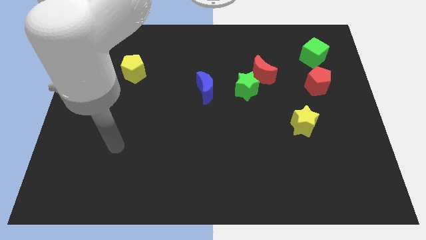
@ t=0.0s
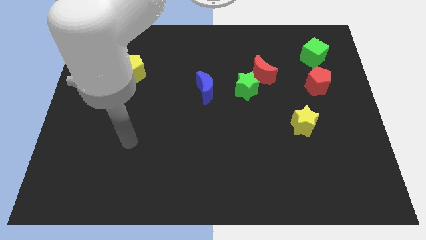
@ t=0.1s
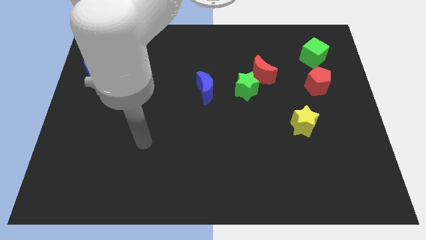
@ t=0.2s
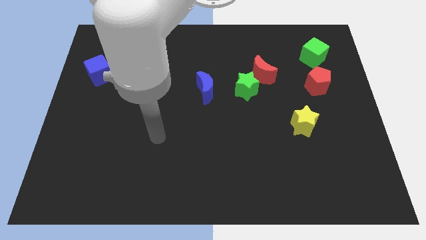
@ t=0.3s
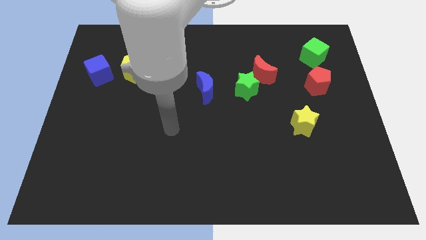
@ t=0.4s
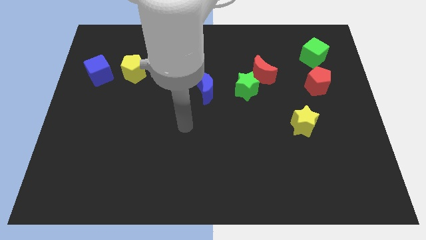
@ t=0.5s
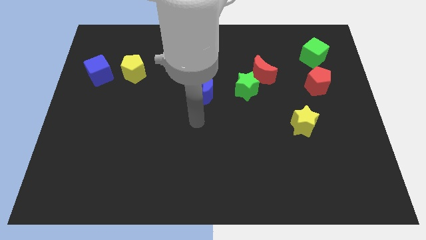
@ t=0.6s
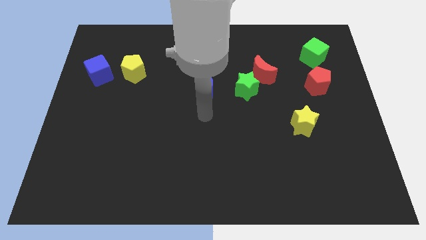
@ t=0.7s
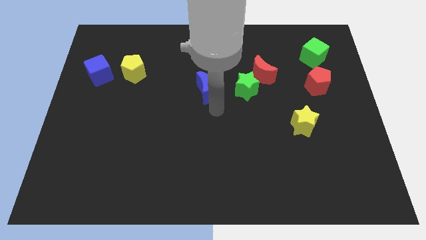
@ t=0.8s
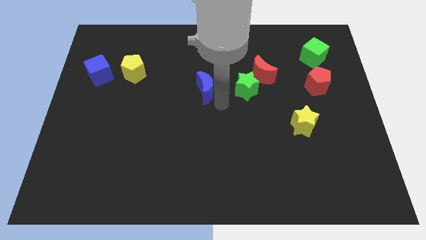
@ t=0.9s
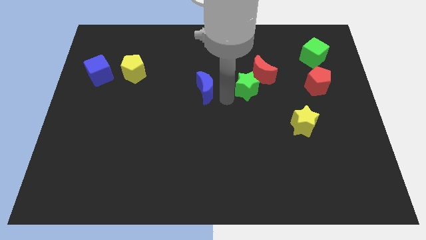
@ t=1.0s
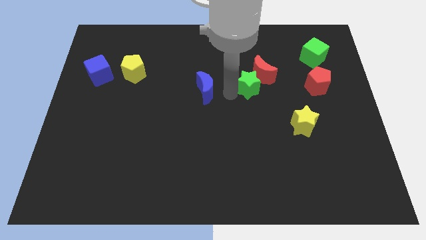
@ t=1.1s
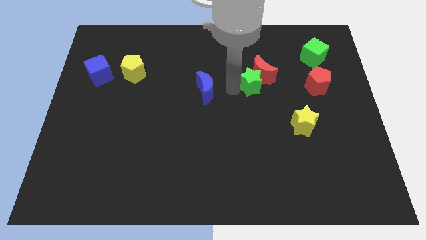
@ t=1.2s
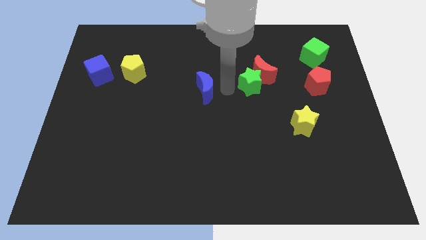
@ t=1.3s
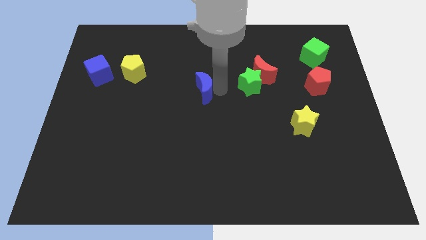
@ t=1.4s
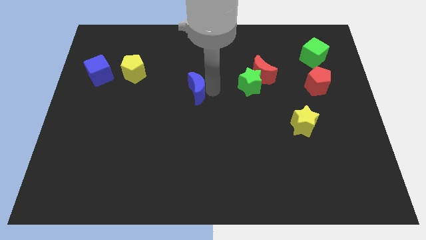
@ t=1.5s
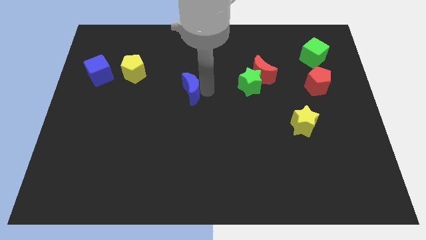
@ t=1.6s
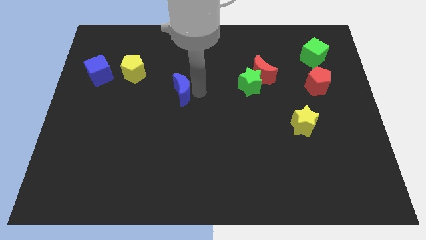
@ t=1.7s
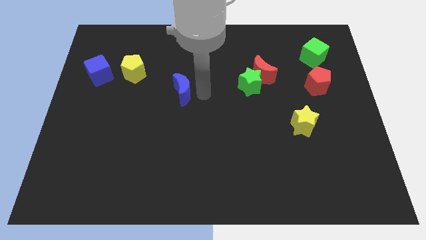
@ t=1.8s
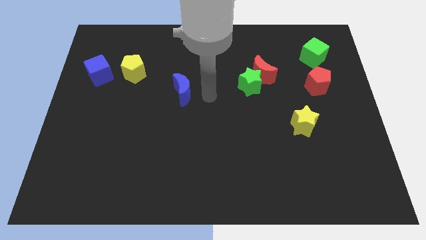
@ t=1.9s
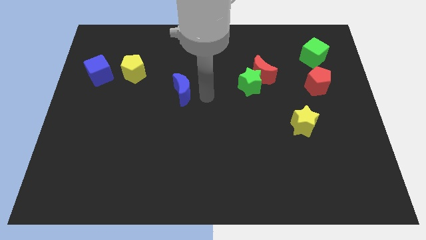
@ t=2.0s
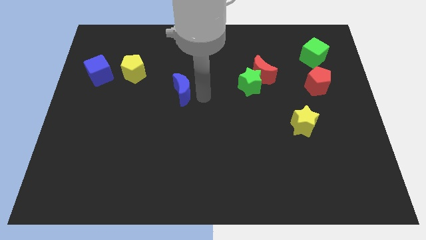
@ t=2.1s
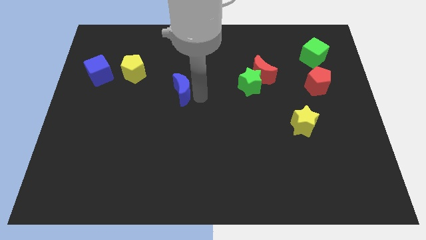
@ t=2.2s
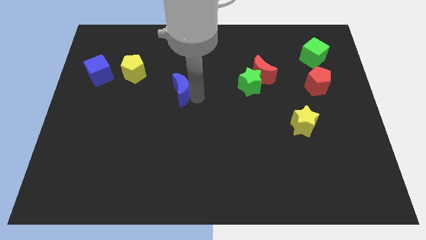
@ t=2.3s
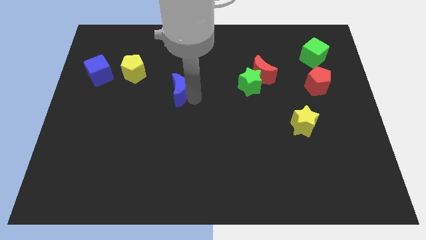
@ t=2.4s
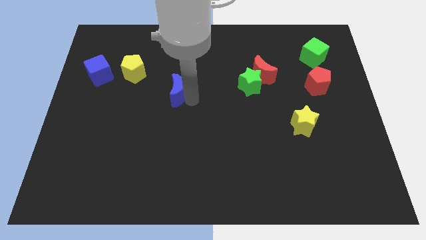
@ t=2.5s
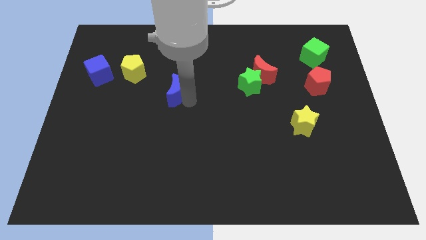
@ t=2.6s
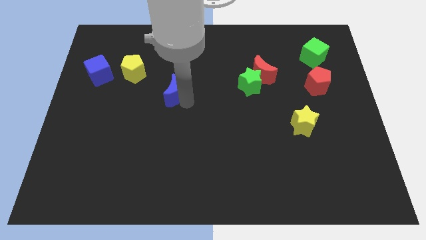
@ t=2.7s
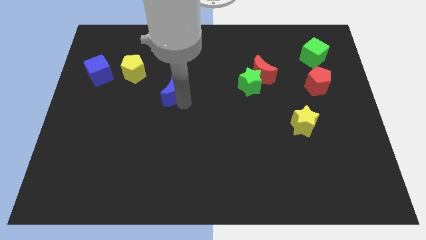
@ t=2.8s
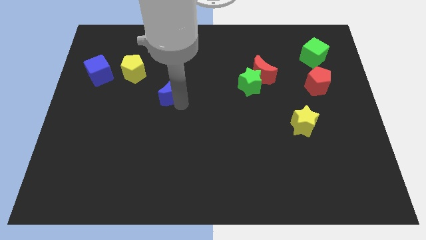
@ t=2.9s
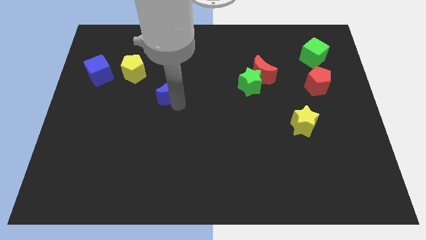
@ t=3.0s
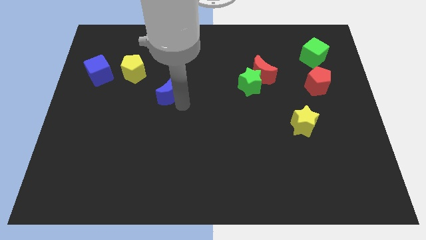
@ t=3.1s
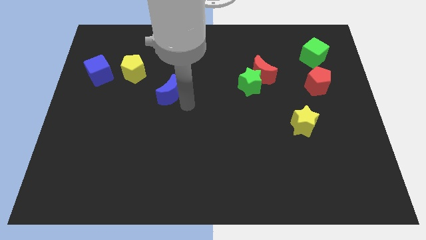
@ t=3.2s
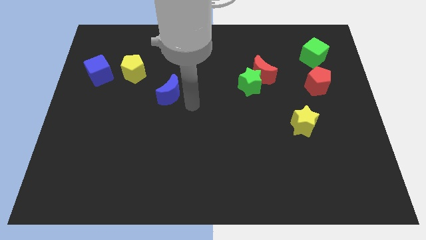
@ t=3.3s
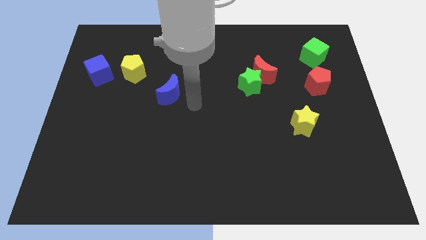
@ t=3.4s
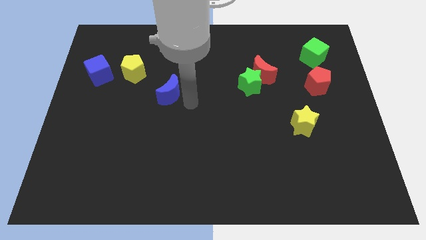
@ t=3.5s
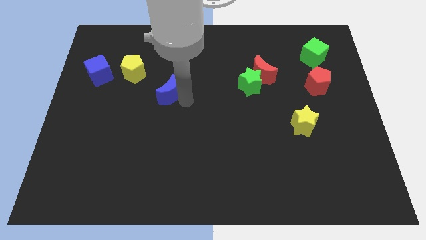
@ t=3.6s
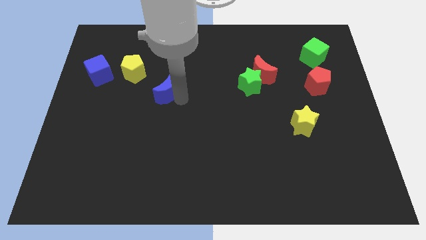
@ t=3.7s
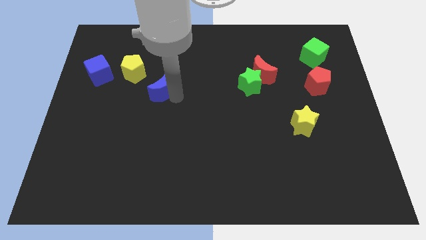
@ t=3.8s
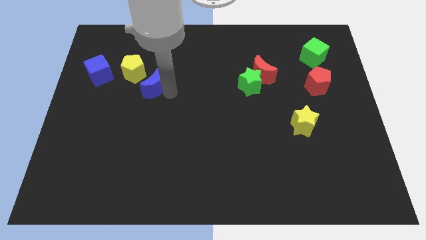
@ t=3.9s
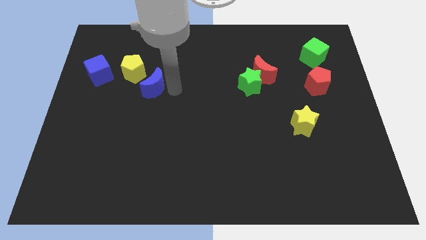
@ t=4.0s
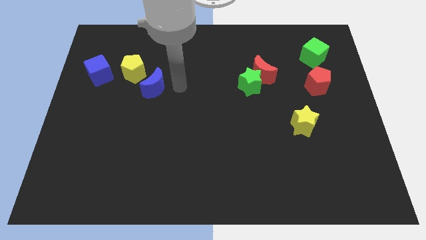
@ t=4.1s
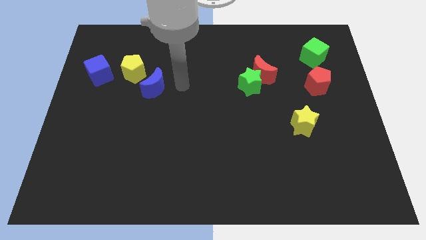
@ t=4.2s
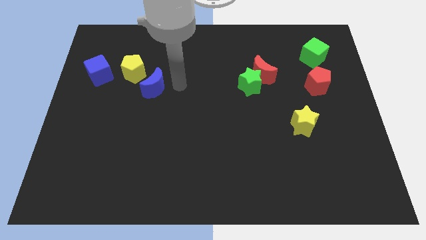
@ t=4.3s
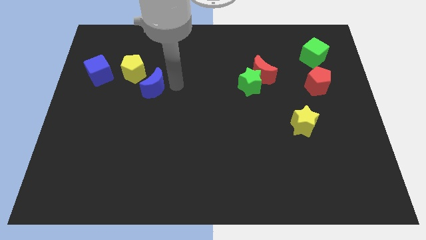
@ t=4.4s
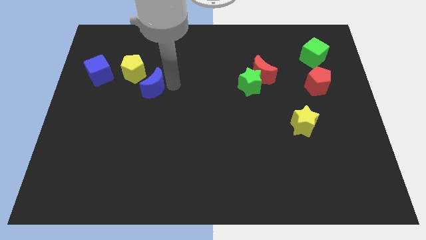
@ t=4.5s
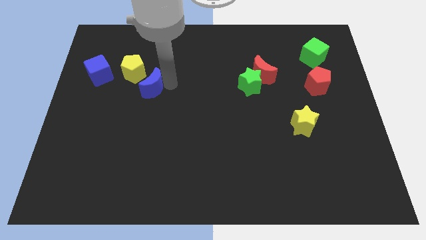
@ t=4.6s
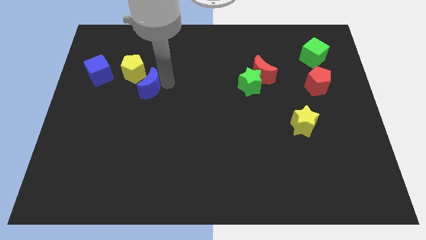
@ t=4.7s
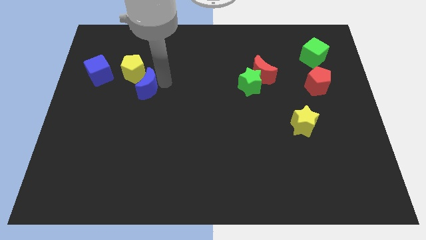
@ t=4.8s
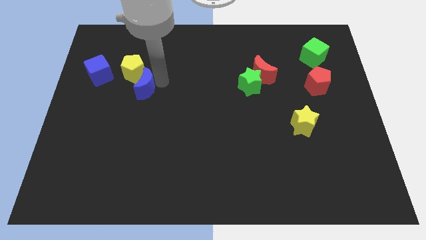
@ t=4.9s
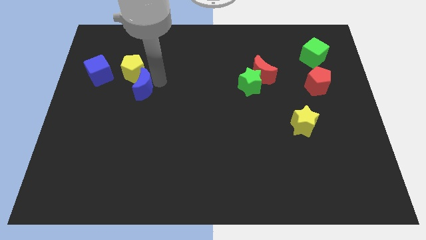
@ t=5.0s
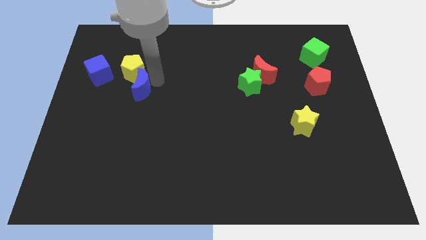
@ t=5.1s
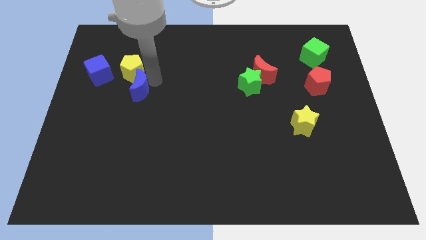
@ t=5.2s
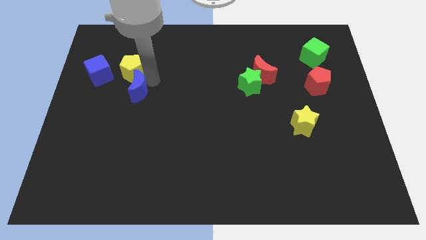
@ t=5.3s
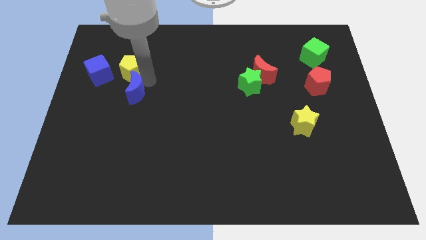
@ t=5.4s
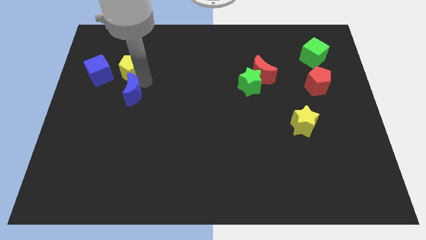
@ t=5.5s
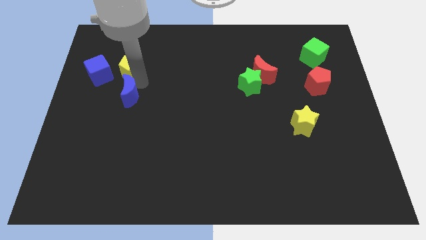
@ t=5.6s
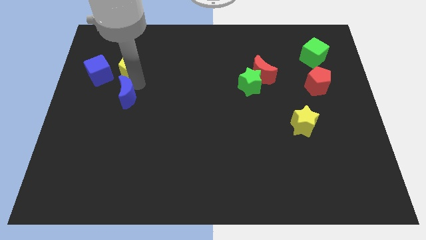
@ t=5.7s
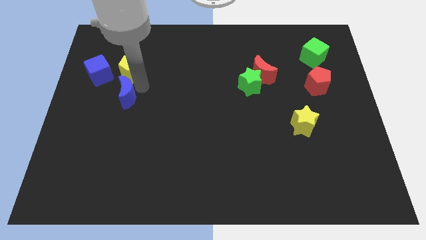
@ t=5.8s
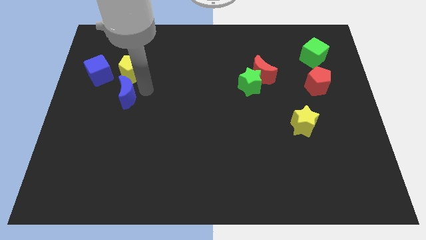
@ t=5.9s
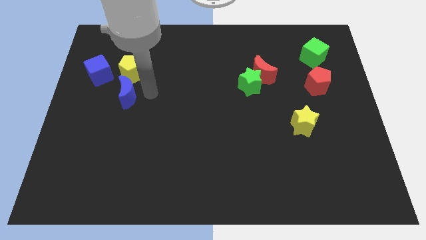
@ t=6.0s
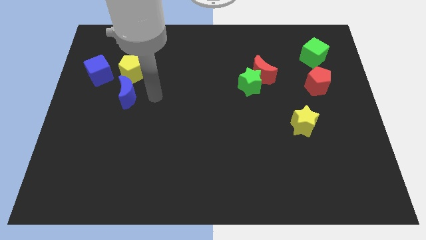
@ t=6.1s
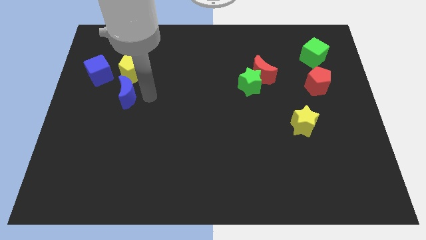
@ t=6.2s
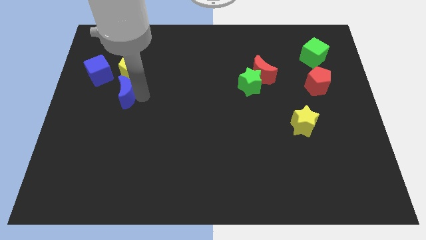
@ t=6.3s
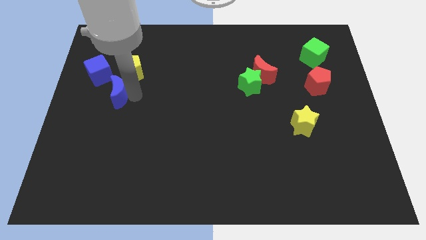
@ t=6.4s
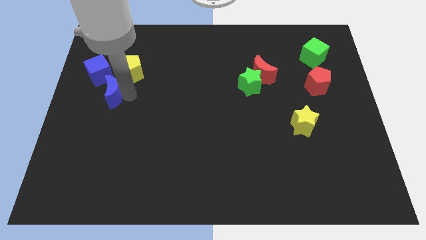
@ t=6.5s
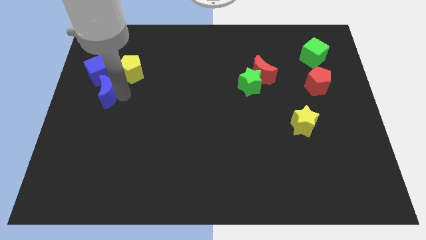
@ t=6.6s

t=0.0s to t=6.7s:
put the blue moon to the center left

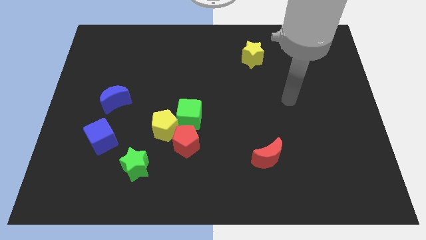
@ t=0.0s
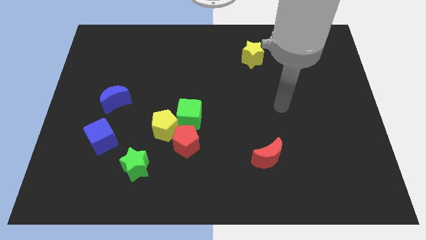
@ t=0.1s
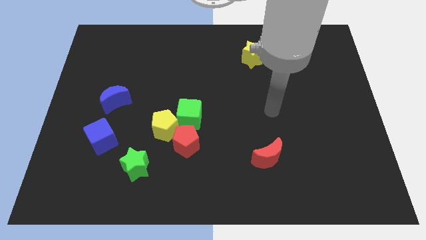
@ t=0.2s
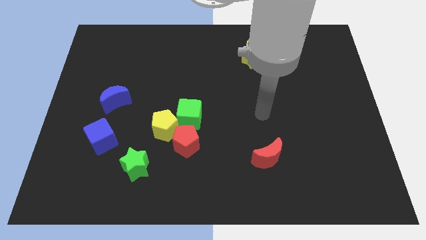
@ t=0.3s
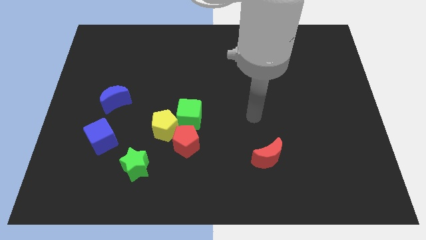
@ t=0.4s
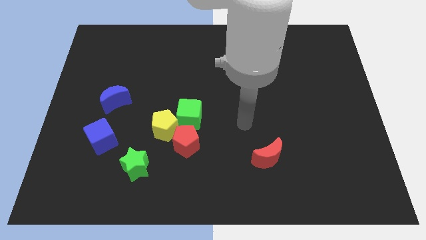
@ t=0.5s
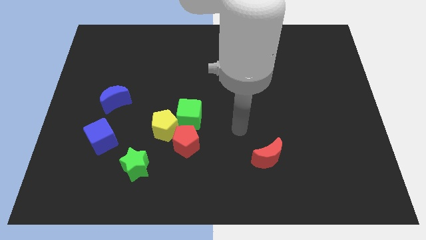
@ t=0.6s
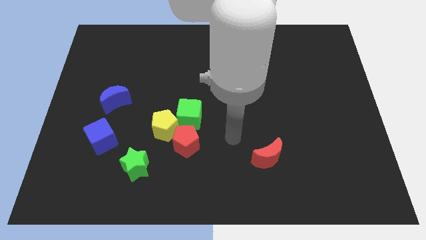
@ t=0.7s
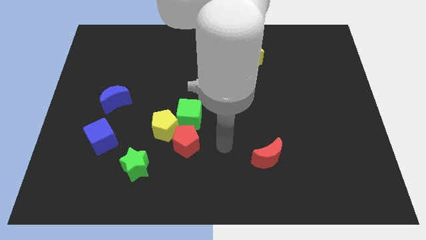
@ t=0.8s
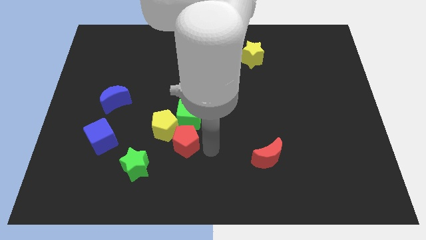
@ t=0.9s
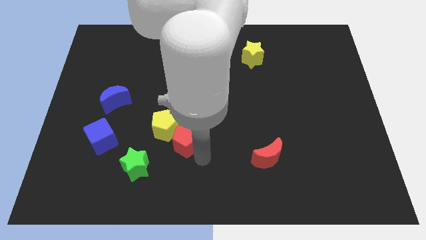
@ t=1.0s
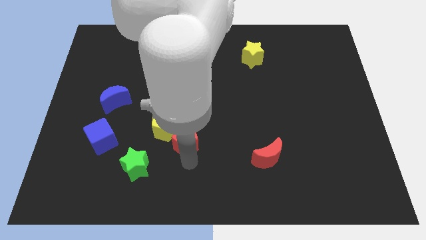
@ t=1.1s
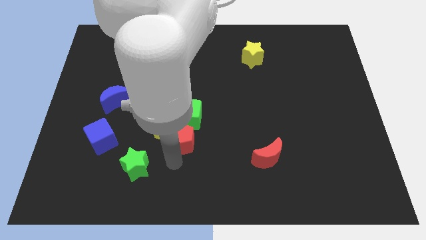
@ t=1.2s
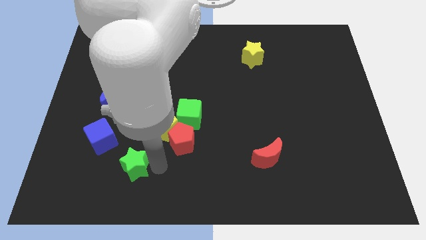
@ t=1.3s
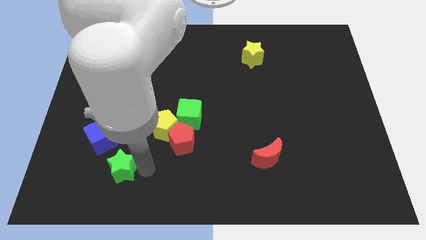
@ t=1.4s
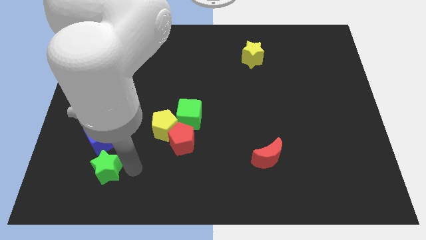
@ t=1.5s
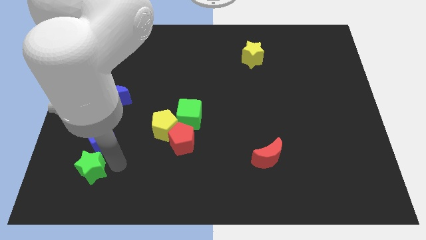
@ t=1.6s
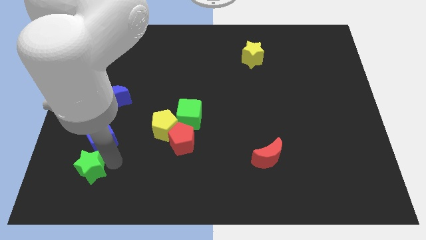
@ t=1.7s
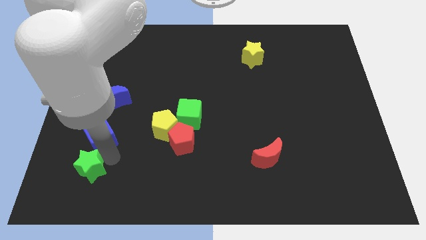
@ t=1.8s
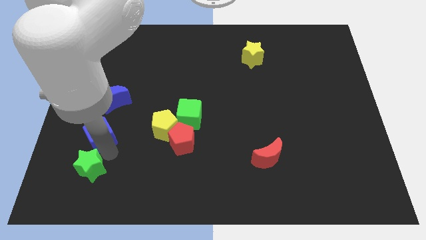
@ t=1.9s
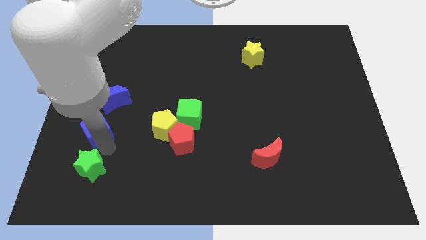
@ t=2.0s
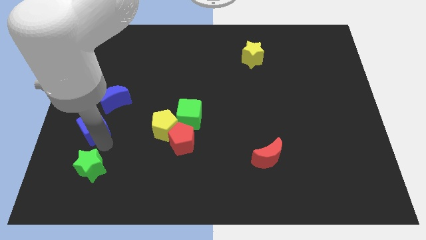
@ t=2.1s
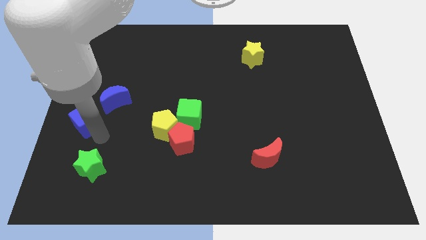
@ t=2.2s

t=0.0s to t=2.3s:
push the blue cube to the left side of the board
